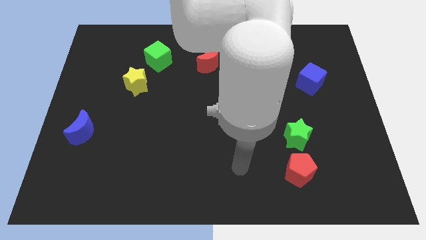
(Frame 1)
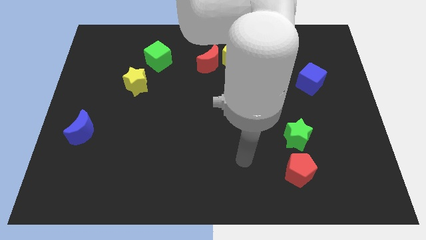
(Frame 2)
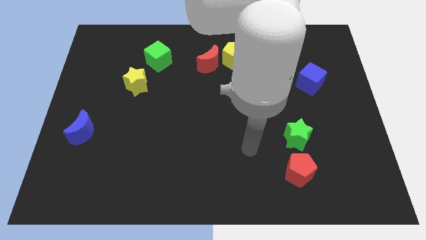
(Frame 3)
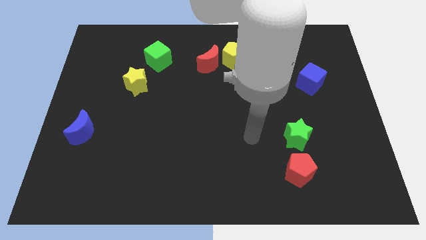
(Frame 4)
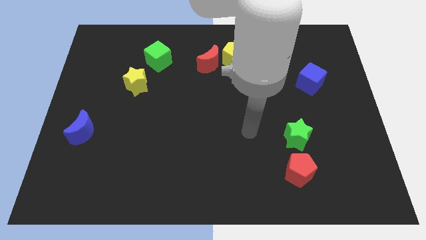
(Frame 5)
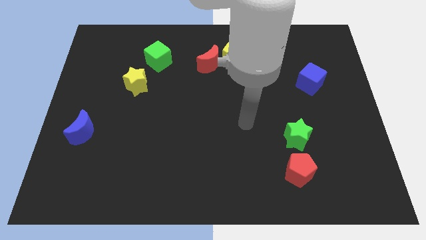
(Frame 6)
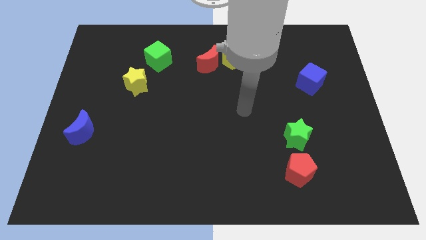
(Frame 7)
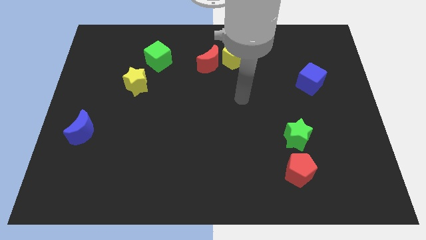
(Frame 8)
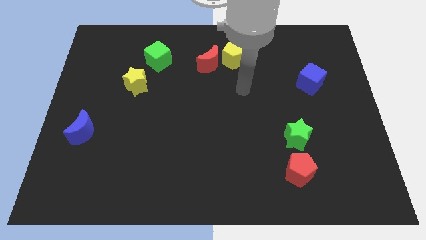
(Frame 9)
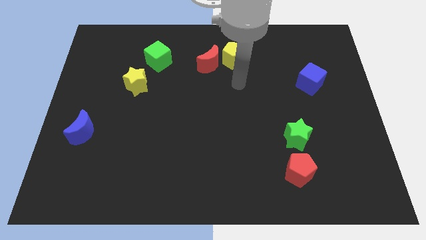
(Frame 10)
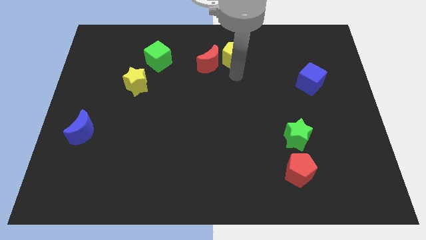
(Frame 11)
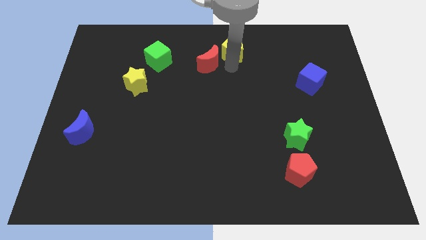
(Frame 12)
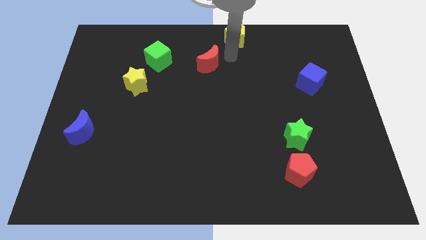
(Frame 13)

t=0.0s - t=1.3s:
separate the red moon from the yellow pentagon

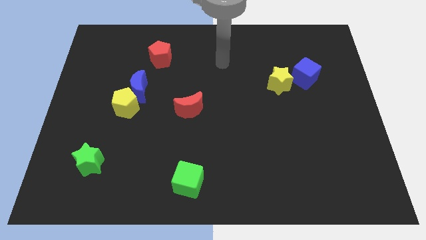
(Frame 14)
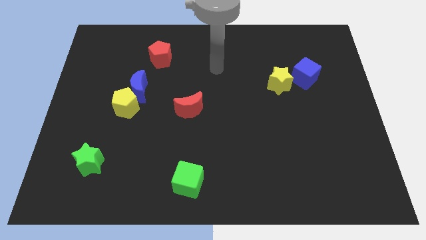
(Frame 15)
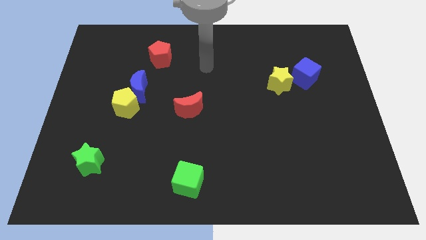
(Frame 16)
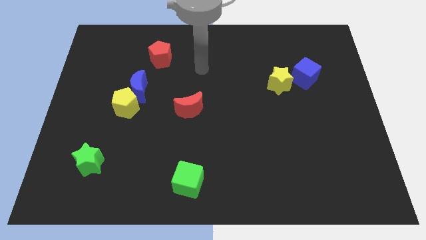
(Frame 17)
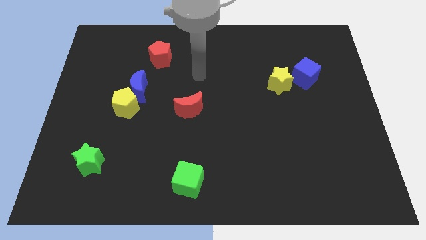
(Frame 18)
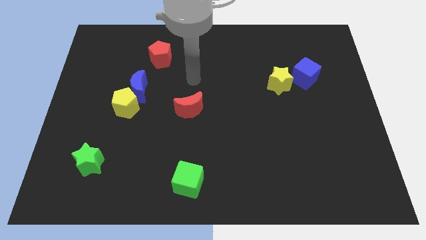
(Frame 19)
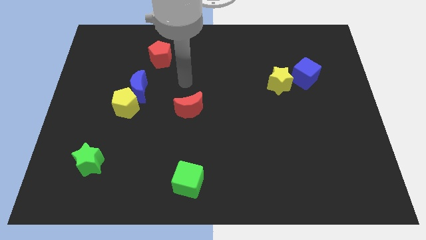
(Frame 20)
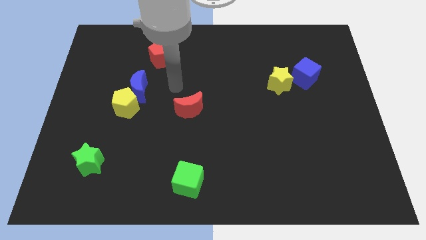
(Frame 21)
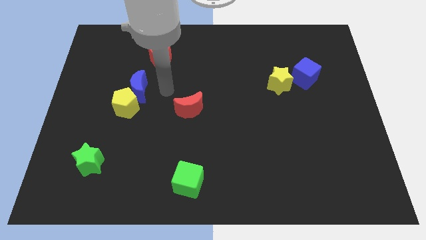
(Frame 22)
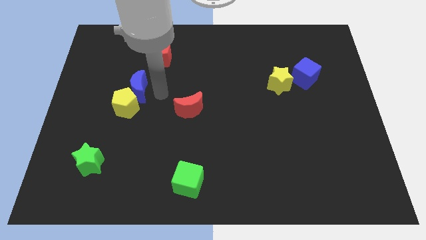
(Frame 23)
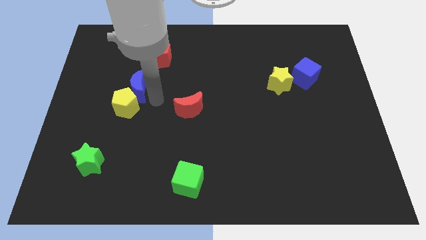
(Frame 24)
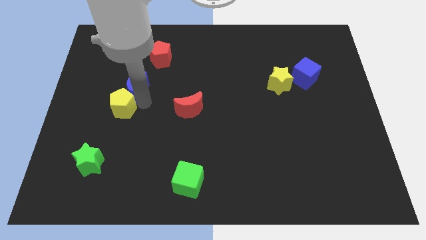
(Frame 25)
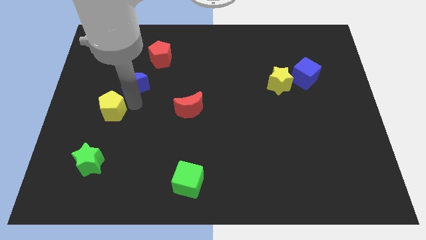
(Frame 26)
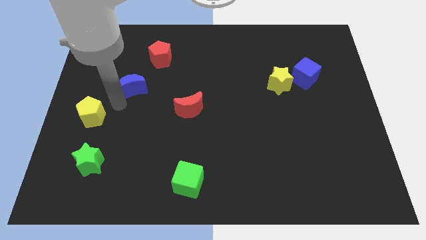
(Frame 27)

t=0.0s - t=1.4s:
pull the blue moon apart from the yellow pentagon

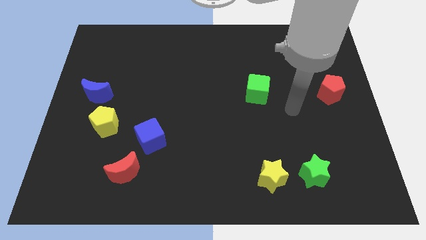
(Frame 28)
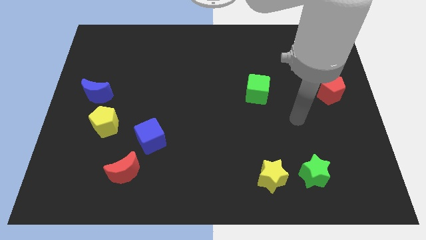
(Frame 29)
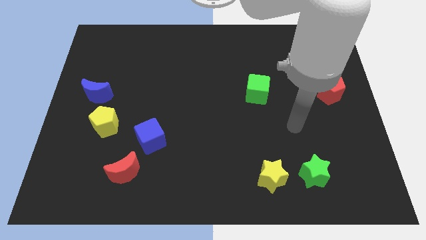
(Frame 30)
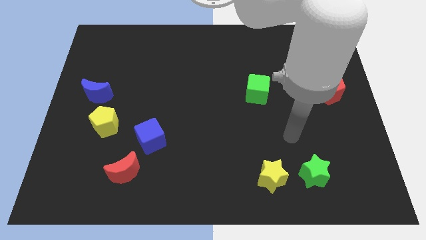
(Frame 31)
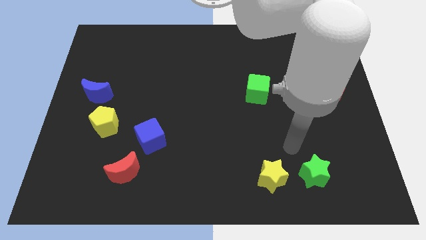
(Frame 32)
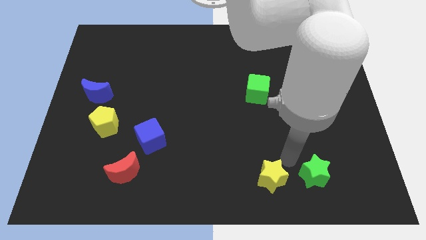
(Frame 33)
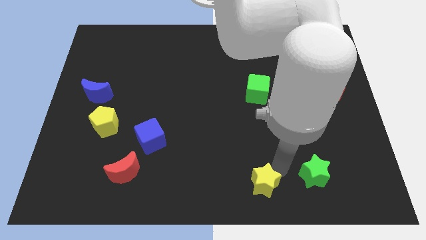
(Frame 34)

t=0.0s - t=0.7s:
separate the green star from the yellow star

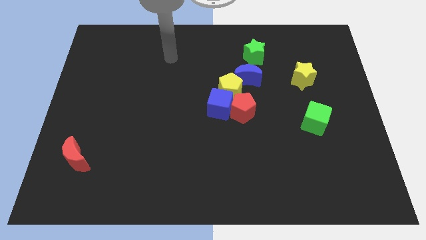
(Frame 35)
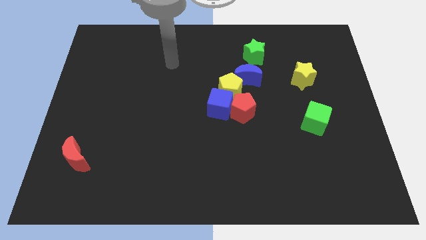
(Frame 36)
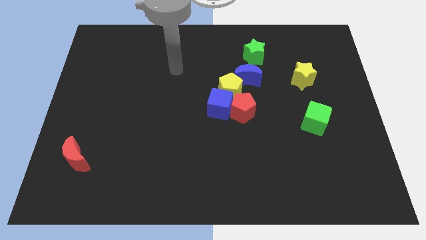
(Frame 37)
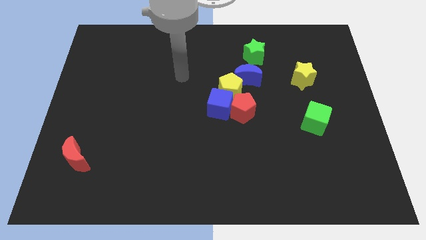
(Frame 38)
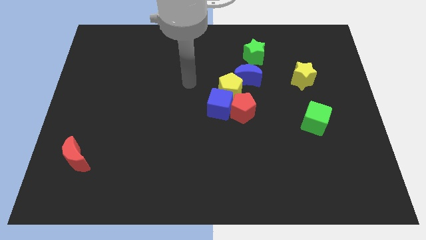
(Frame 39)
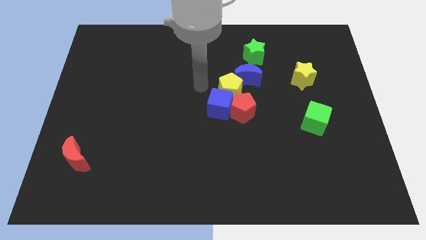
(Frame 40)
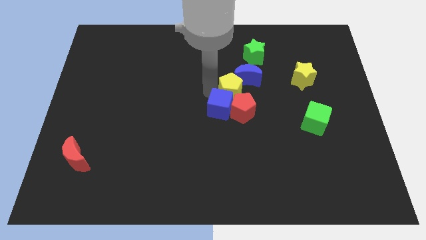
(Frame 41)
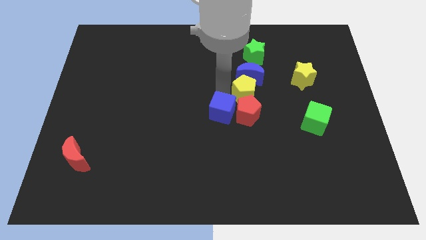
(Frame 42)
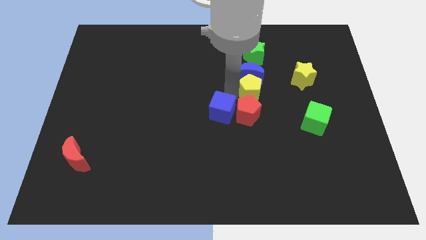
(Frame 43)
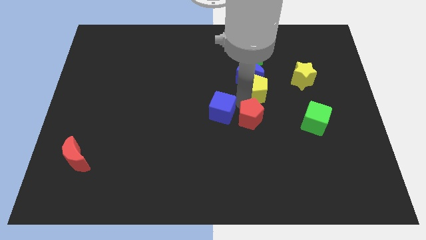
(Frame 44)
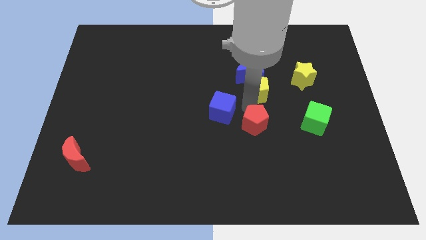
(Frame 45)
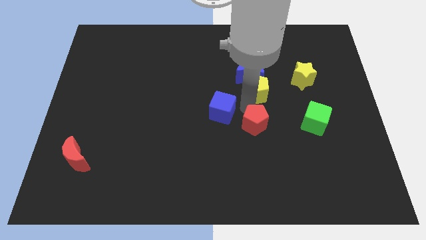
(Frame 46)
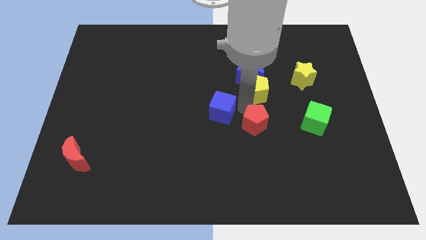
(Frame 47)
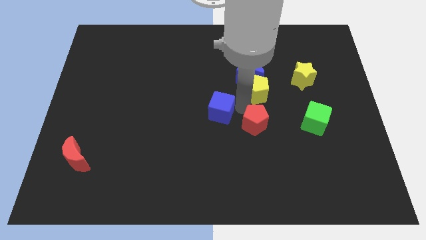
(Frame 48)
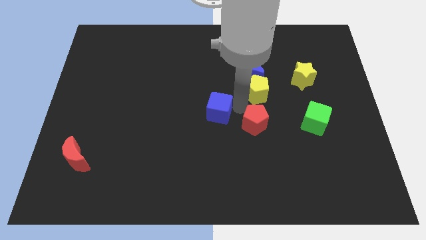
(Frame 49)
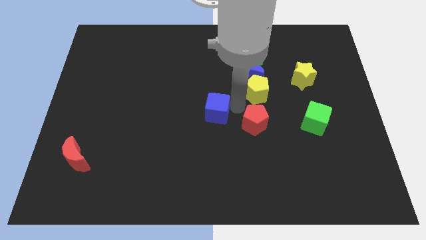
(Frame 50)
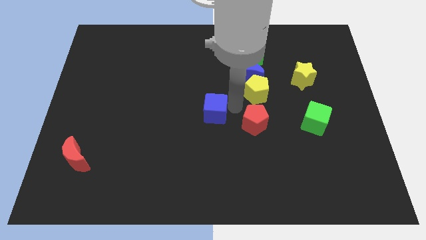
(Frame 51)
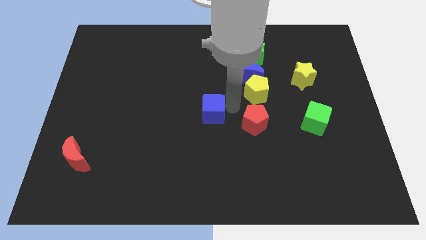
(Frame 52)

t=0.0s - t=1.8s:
move the blue cube away from the red pentagon and yellow pentagon

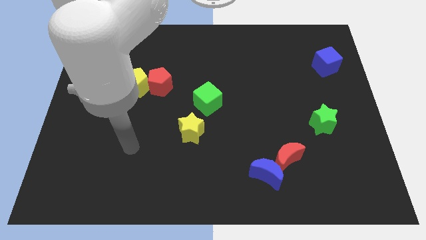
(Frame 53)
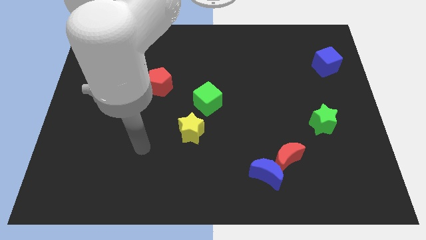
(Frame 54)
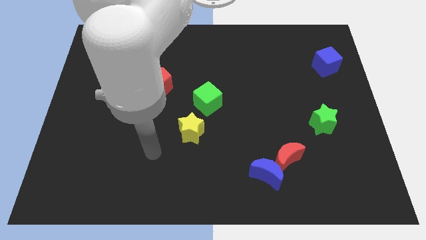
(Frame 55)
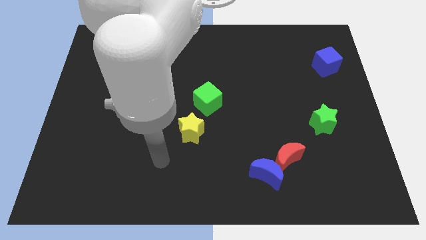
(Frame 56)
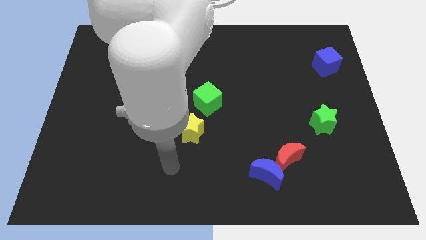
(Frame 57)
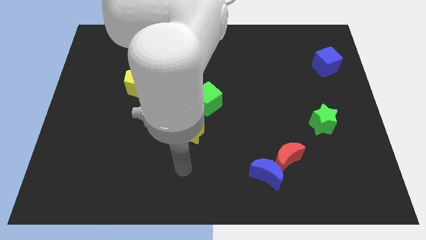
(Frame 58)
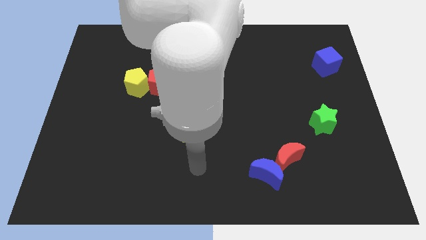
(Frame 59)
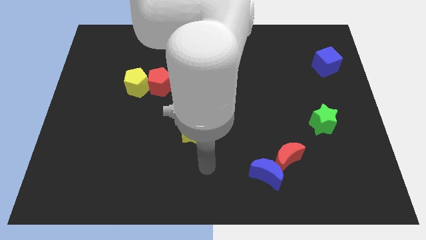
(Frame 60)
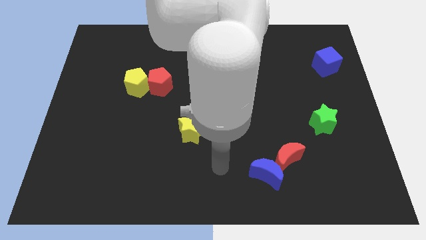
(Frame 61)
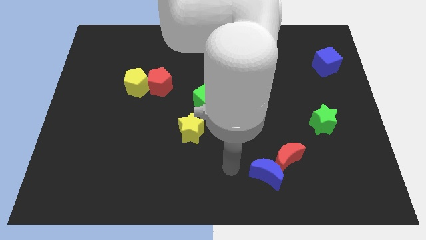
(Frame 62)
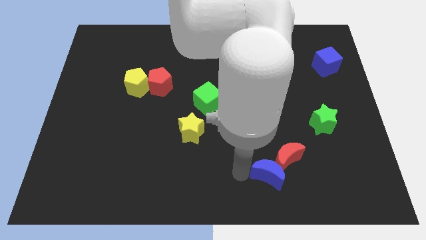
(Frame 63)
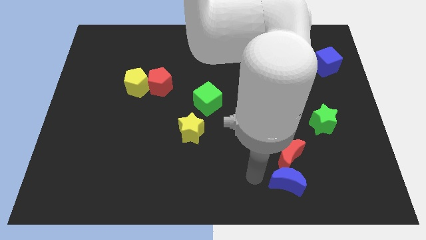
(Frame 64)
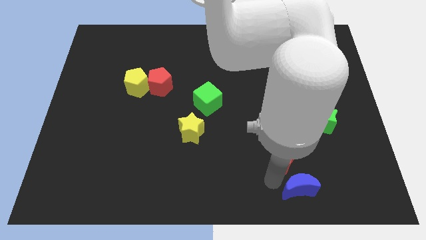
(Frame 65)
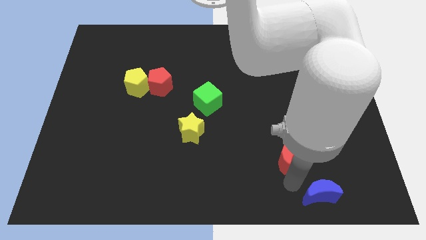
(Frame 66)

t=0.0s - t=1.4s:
separate the red moon from the blue moon

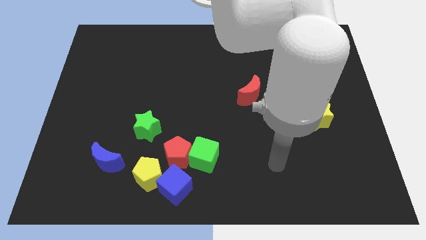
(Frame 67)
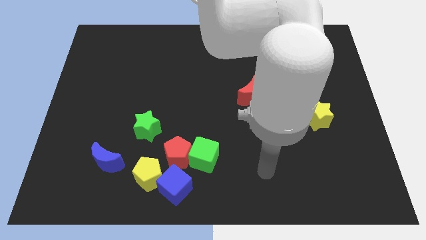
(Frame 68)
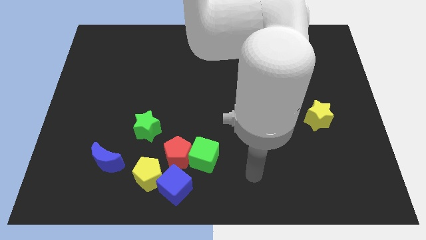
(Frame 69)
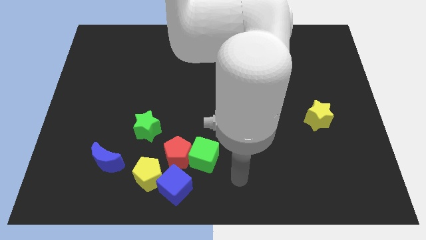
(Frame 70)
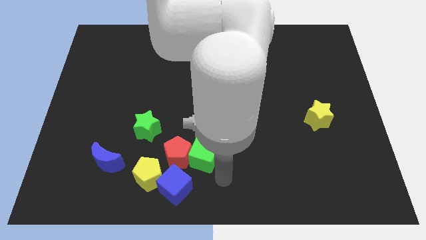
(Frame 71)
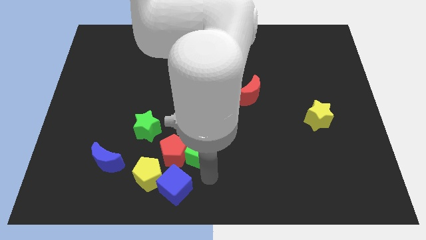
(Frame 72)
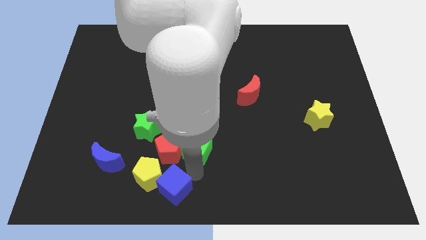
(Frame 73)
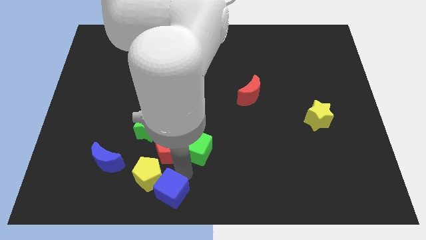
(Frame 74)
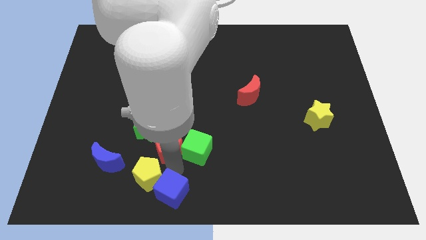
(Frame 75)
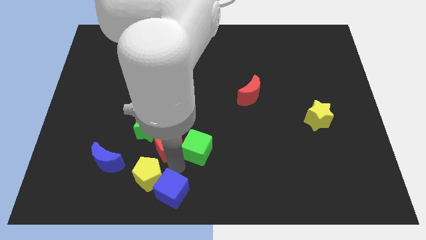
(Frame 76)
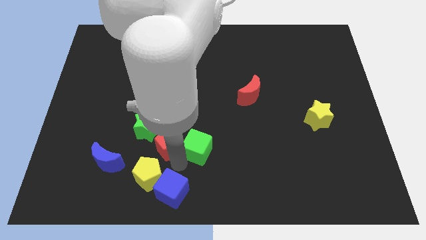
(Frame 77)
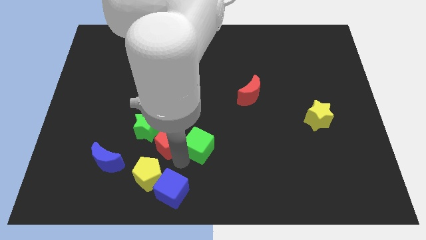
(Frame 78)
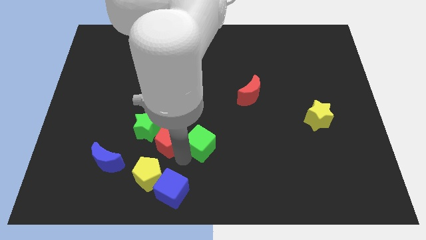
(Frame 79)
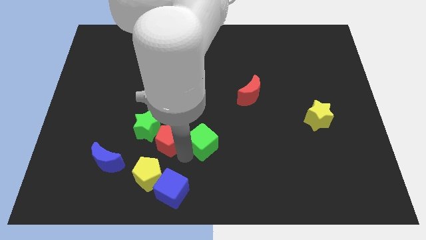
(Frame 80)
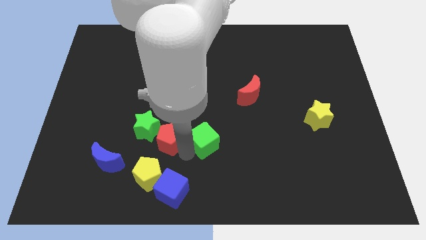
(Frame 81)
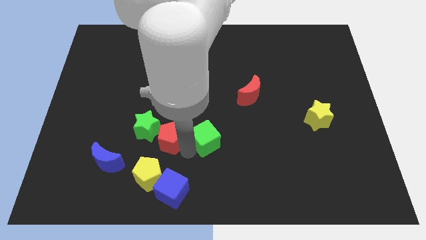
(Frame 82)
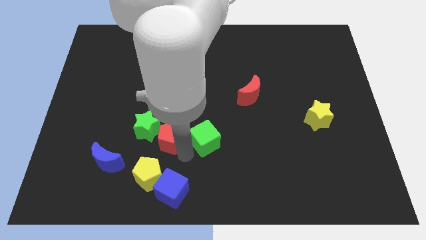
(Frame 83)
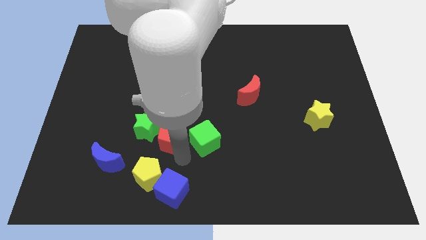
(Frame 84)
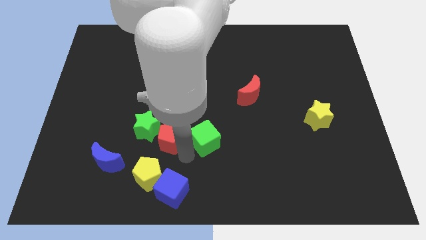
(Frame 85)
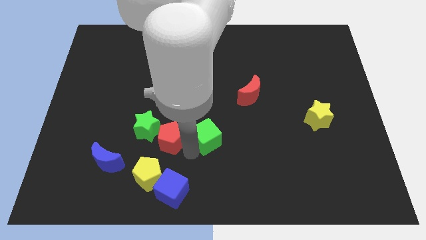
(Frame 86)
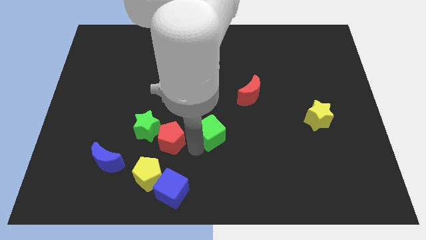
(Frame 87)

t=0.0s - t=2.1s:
move the green cube away from the red pentagon and blue cube

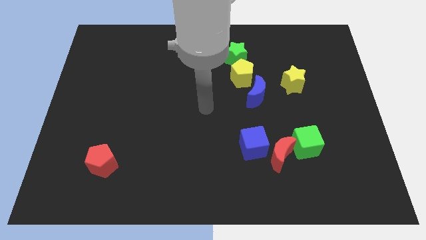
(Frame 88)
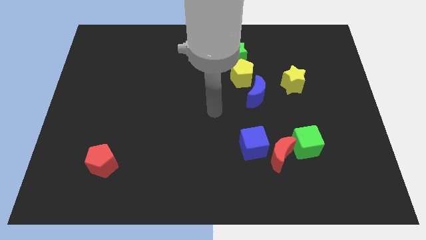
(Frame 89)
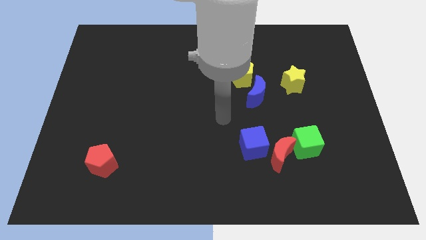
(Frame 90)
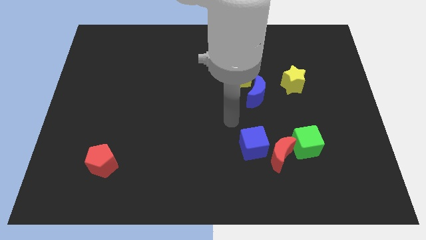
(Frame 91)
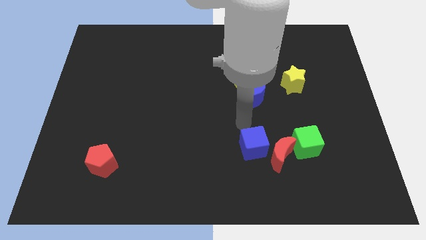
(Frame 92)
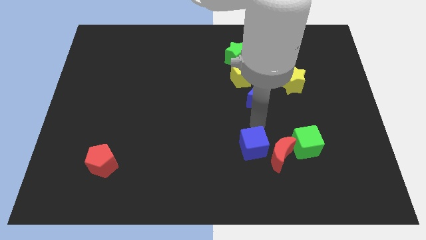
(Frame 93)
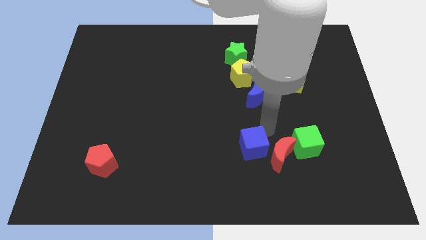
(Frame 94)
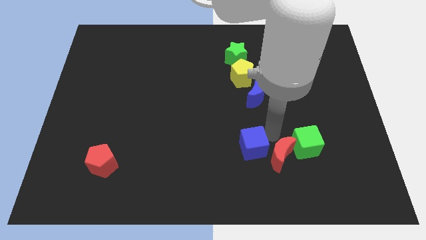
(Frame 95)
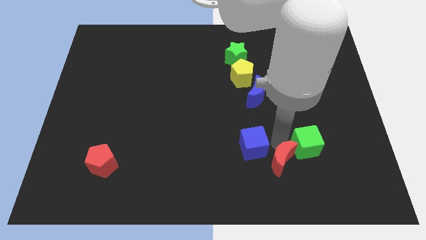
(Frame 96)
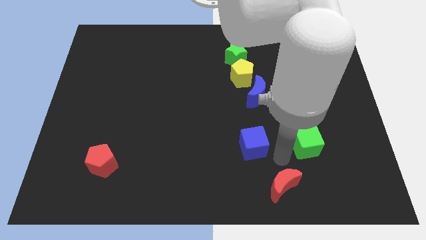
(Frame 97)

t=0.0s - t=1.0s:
move the blue cube away from the red moon
